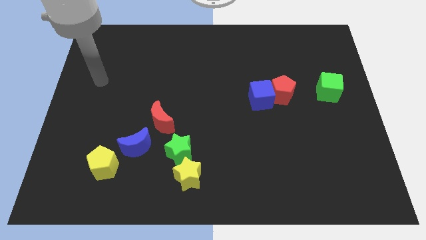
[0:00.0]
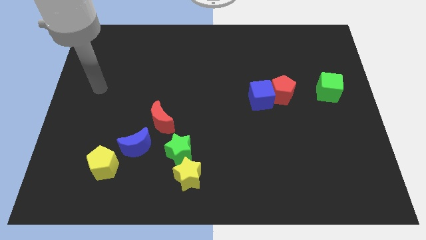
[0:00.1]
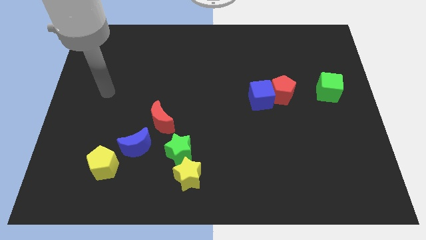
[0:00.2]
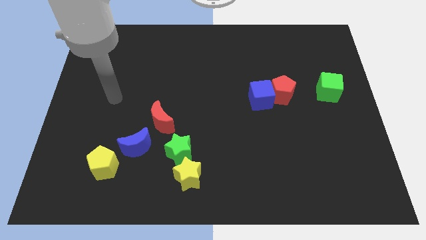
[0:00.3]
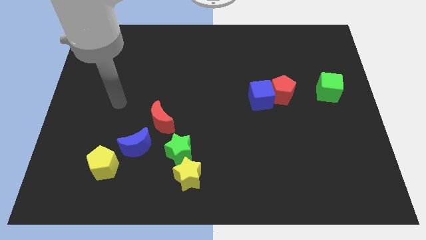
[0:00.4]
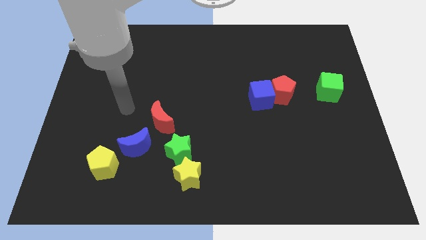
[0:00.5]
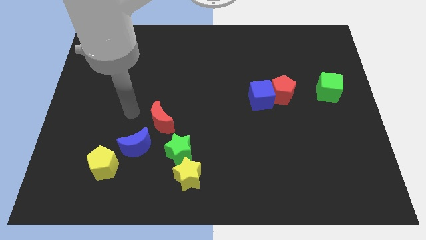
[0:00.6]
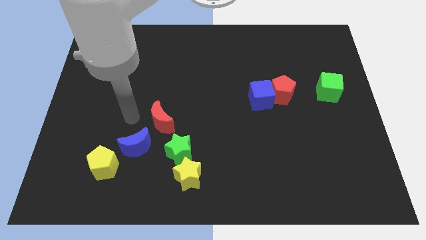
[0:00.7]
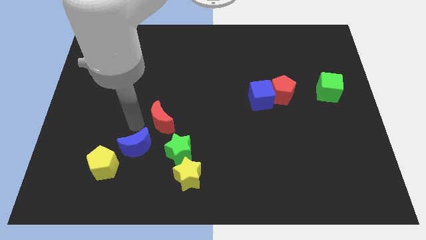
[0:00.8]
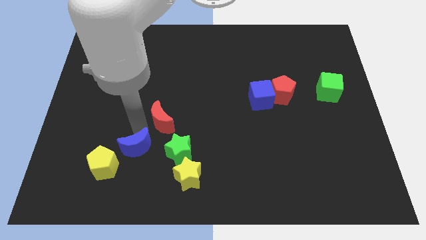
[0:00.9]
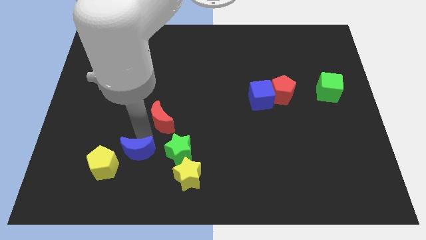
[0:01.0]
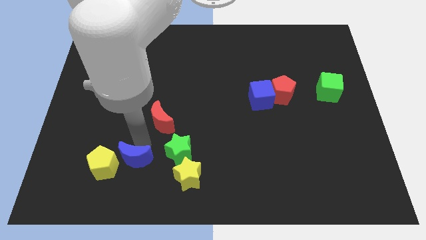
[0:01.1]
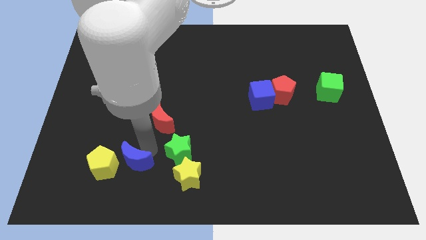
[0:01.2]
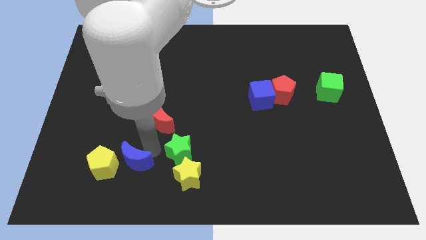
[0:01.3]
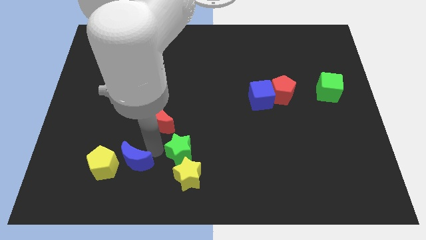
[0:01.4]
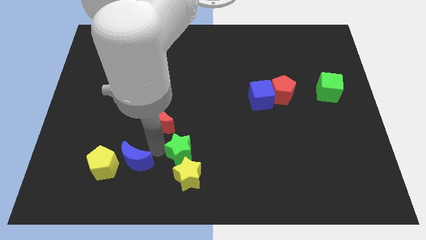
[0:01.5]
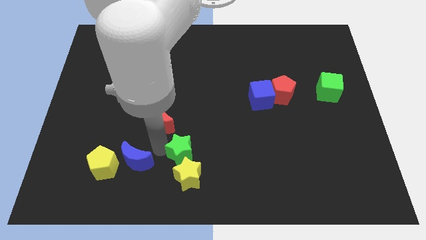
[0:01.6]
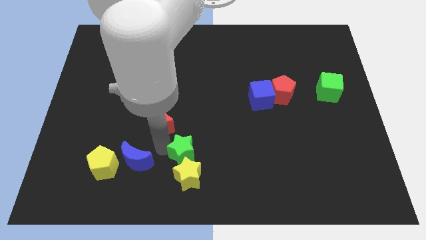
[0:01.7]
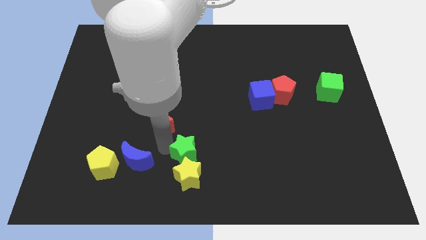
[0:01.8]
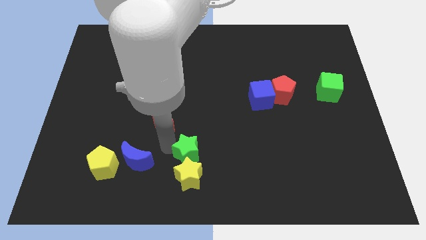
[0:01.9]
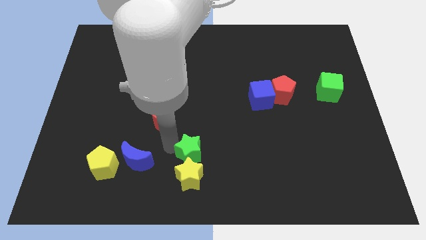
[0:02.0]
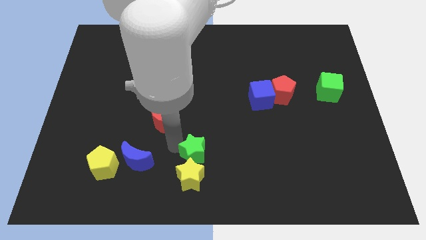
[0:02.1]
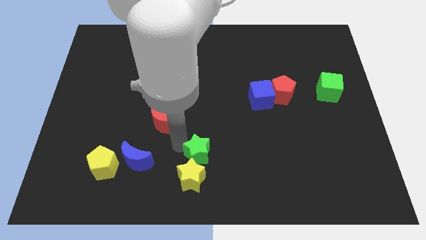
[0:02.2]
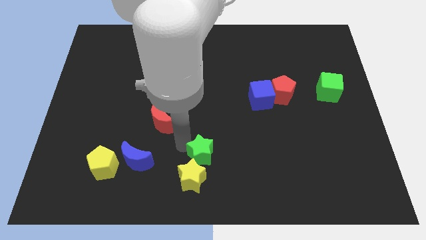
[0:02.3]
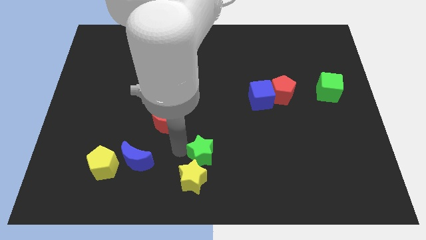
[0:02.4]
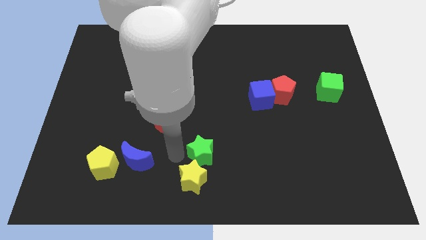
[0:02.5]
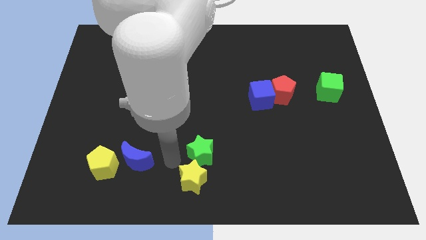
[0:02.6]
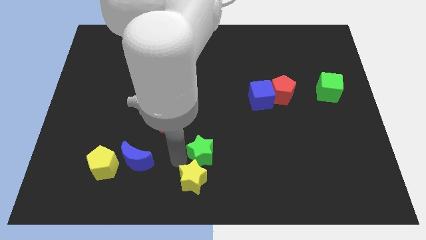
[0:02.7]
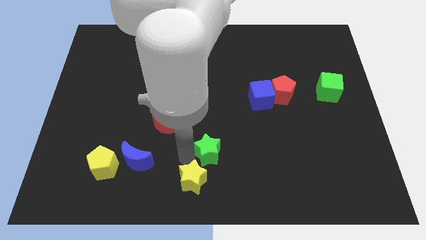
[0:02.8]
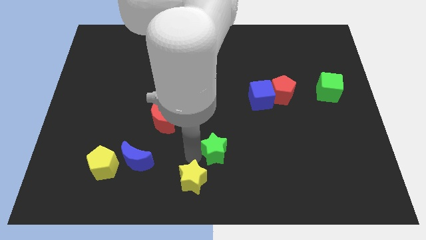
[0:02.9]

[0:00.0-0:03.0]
slightly push the green star to the right

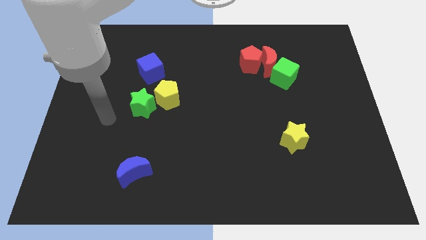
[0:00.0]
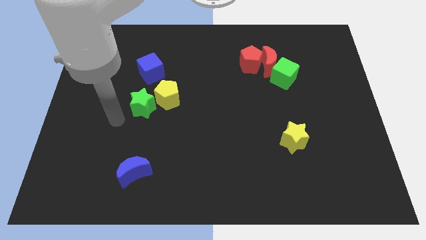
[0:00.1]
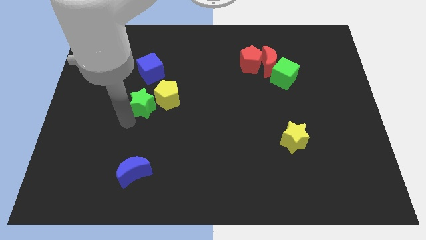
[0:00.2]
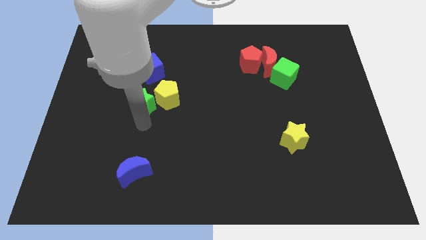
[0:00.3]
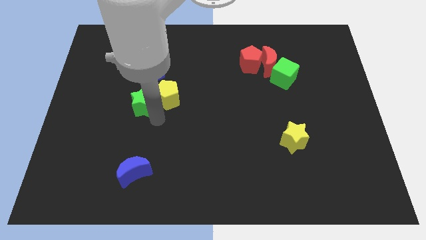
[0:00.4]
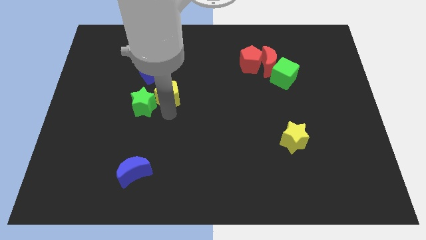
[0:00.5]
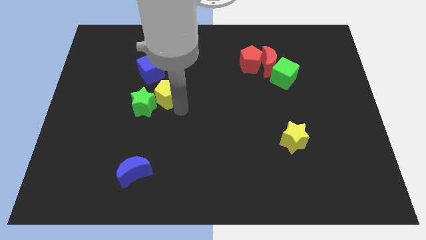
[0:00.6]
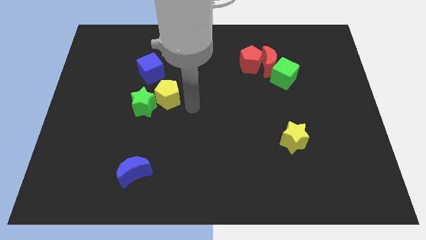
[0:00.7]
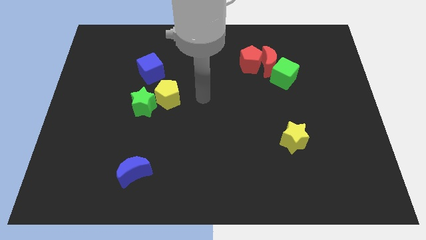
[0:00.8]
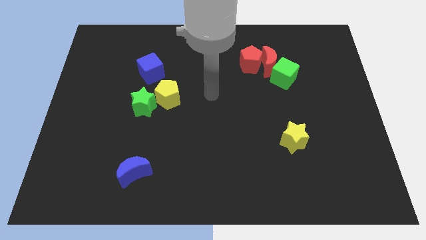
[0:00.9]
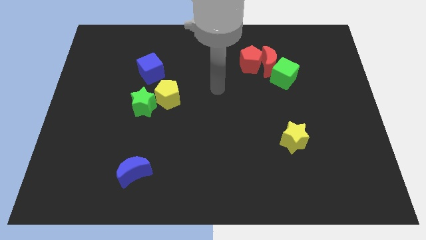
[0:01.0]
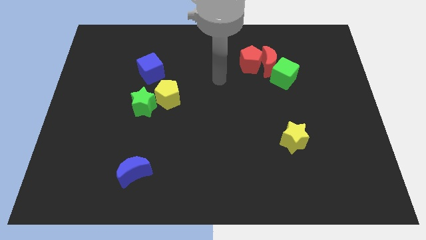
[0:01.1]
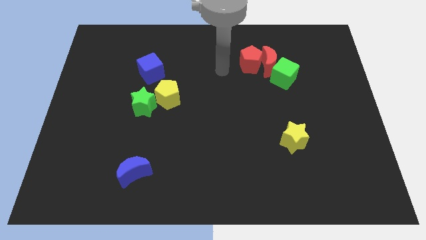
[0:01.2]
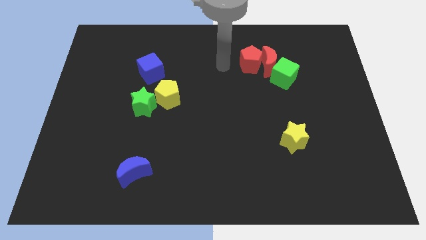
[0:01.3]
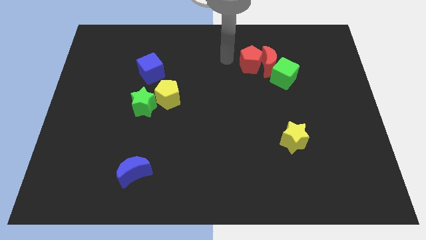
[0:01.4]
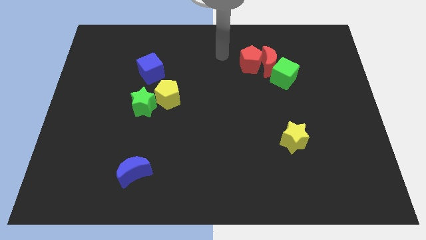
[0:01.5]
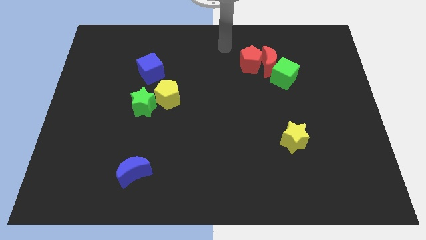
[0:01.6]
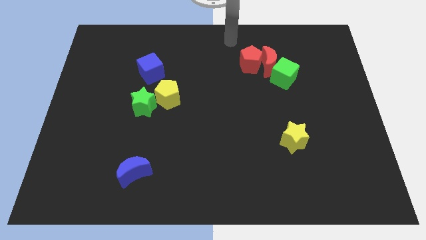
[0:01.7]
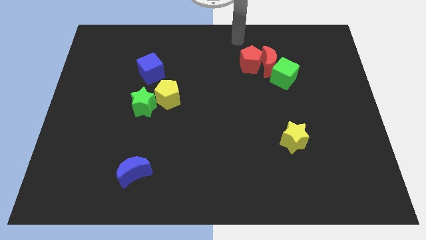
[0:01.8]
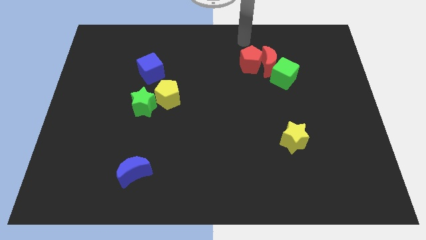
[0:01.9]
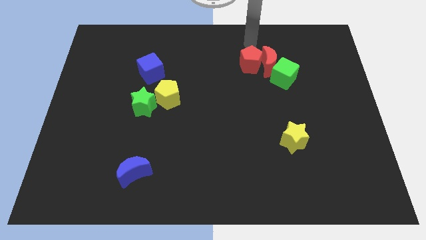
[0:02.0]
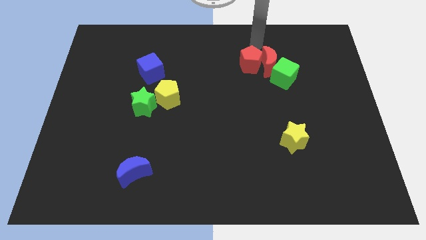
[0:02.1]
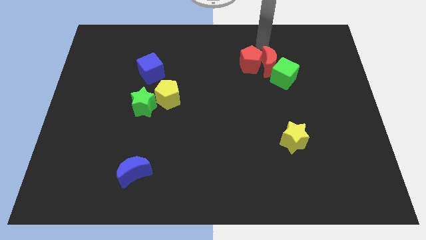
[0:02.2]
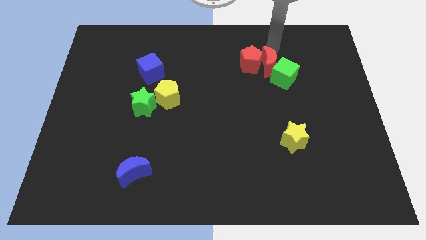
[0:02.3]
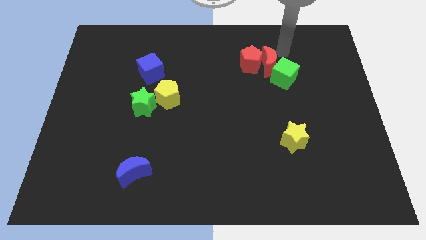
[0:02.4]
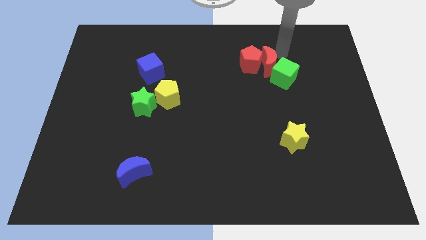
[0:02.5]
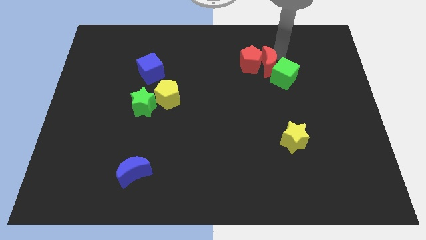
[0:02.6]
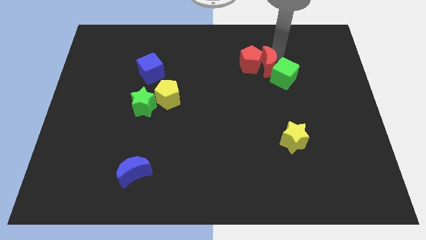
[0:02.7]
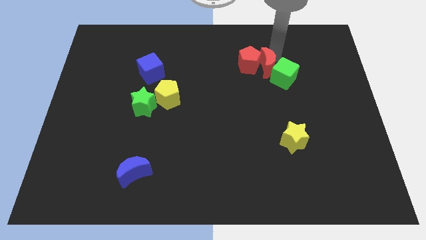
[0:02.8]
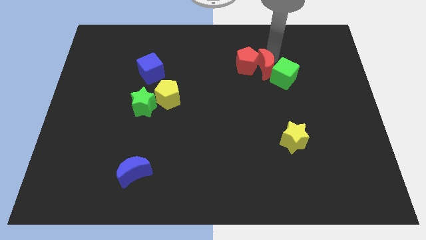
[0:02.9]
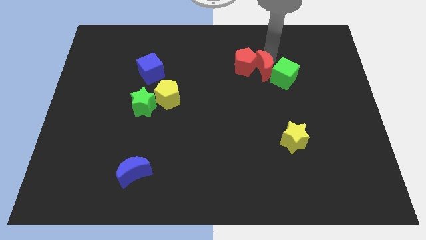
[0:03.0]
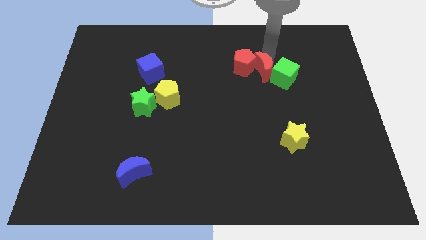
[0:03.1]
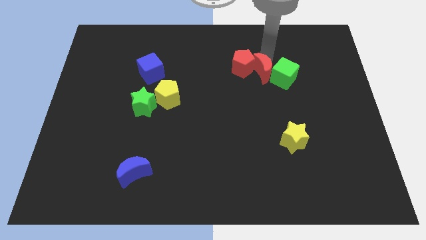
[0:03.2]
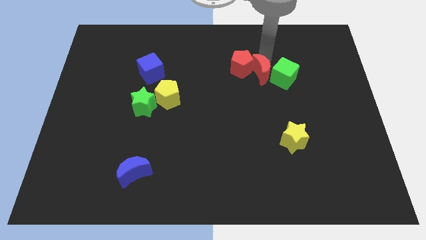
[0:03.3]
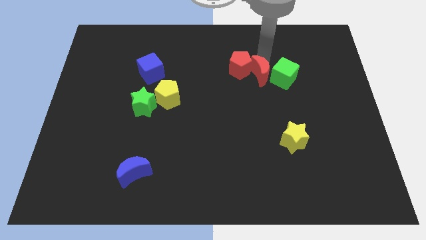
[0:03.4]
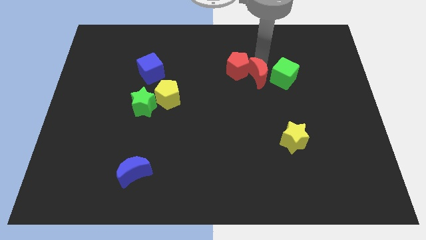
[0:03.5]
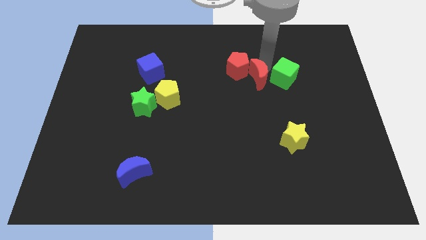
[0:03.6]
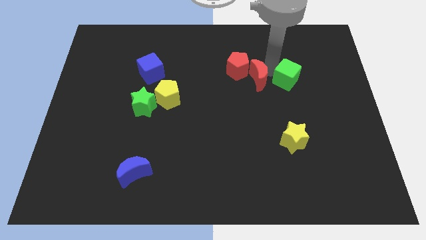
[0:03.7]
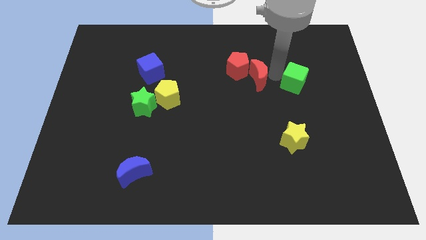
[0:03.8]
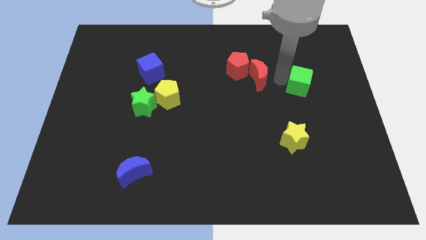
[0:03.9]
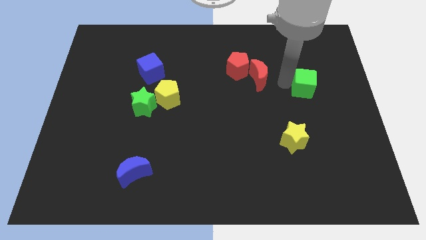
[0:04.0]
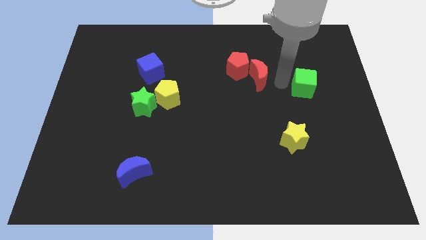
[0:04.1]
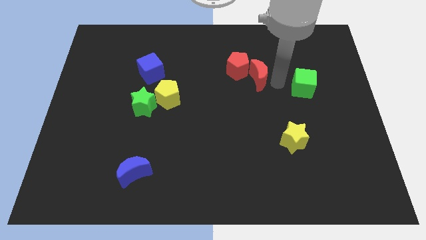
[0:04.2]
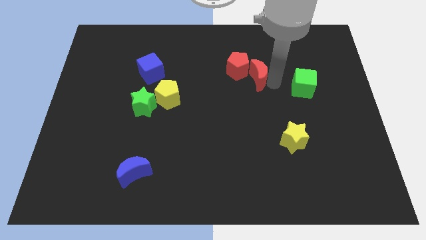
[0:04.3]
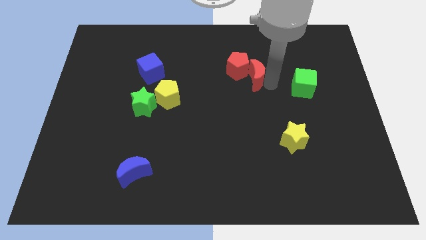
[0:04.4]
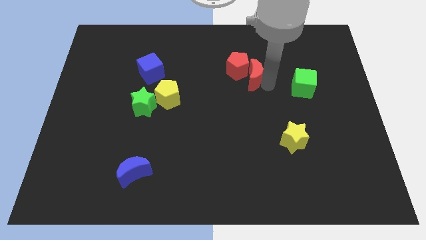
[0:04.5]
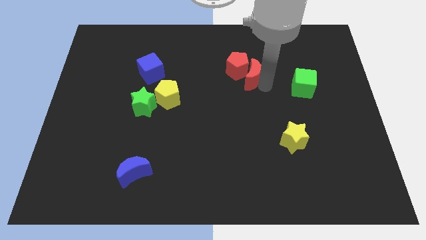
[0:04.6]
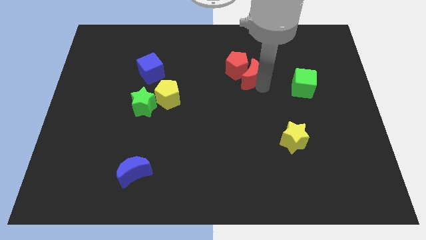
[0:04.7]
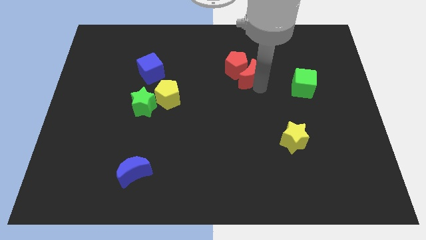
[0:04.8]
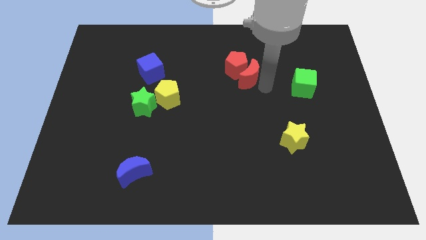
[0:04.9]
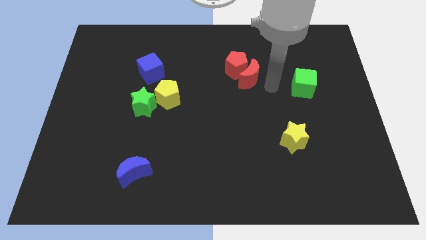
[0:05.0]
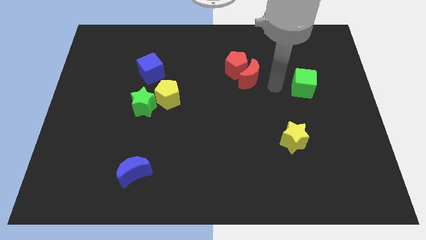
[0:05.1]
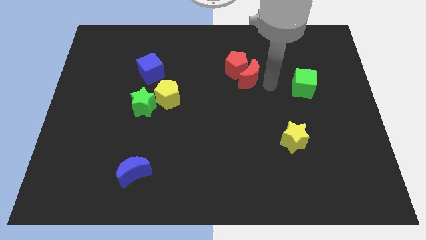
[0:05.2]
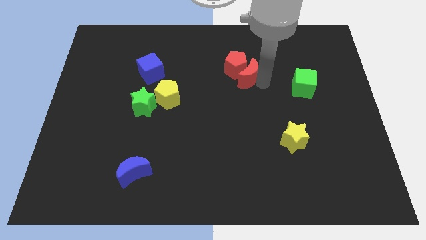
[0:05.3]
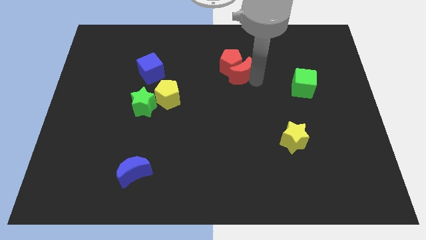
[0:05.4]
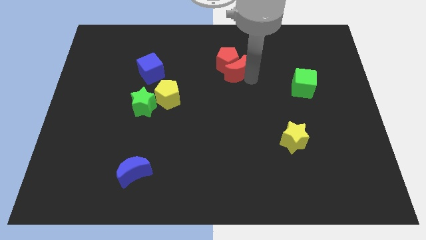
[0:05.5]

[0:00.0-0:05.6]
move the red moon a little left
